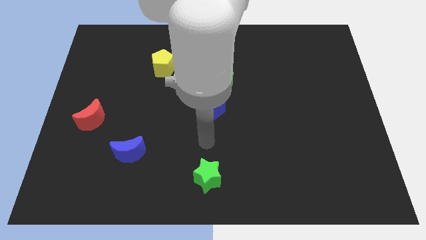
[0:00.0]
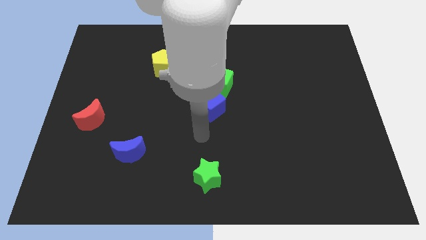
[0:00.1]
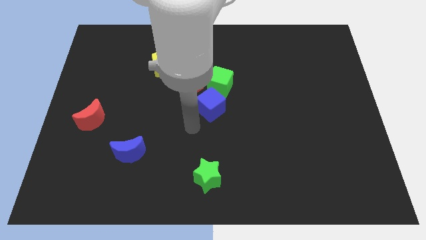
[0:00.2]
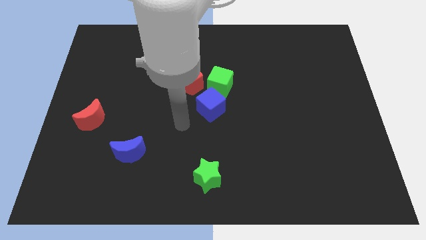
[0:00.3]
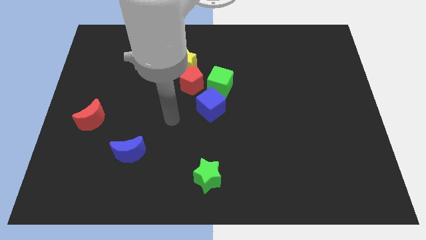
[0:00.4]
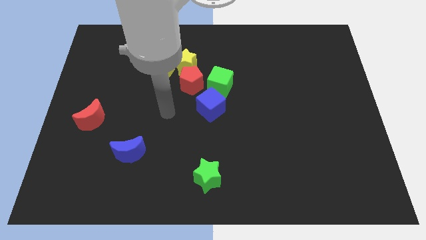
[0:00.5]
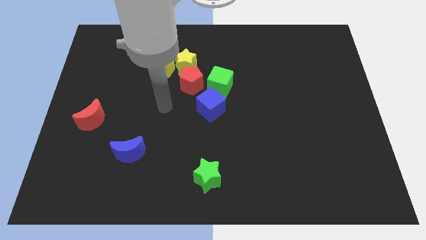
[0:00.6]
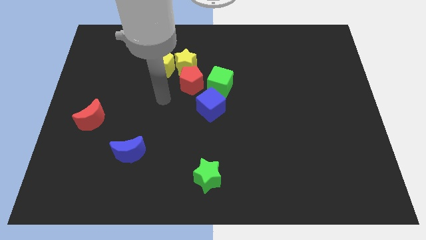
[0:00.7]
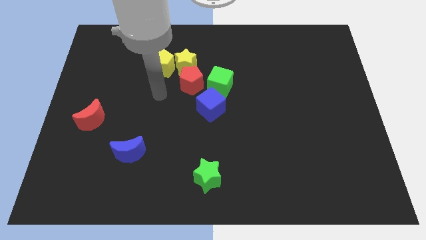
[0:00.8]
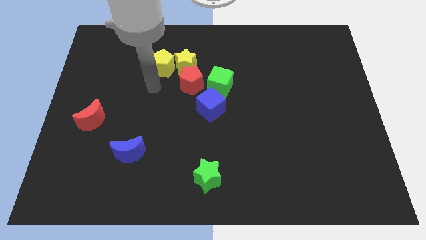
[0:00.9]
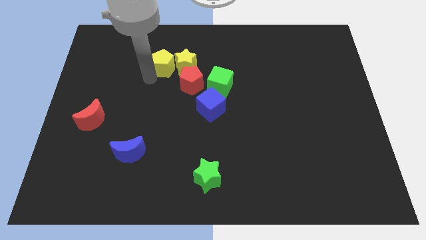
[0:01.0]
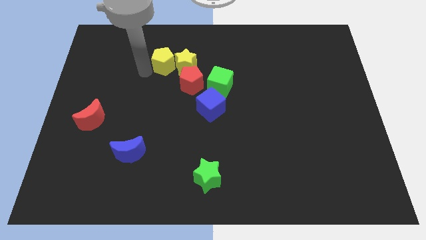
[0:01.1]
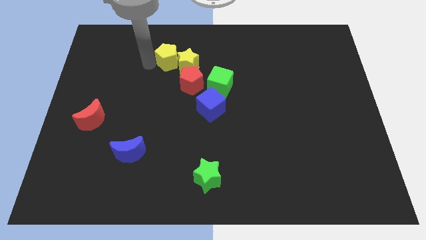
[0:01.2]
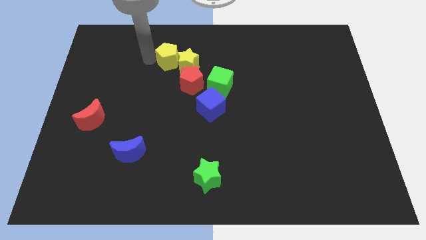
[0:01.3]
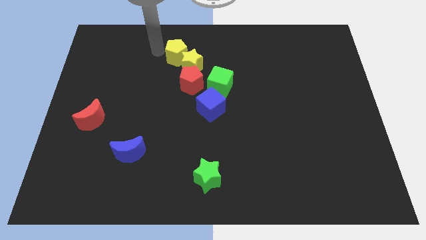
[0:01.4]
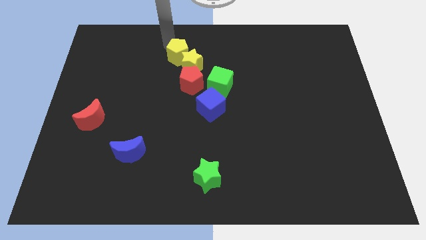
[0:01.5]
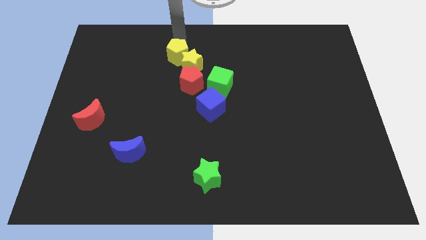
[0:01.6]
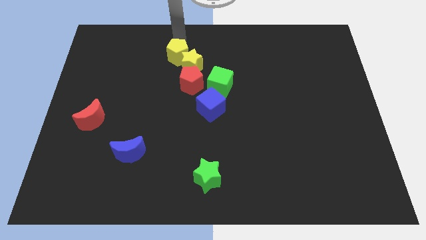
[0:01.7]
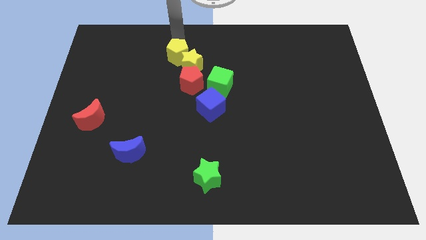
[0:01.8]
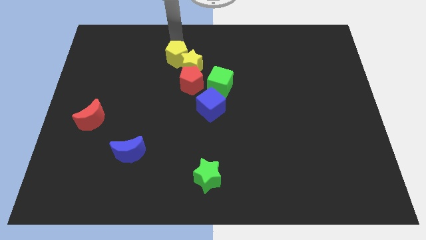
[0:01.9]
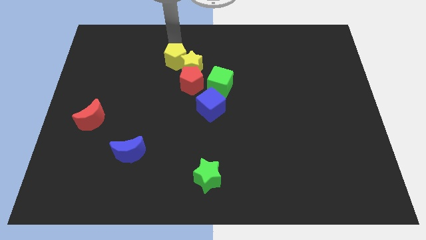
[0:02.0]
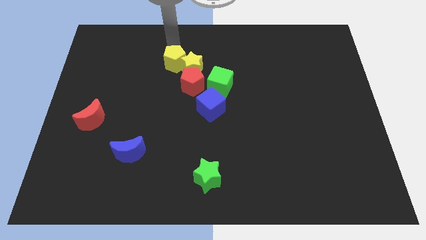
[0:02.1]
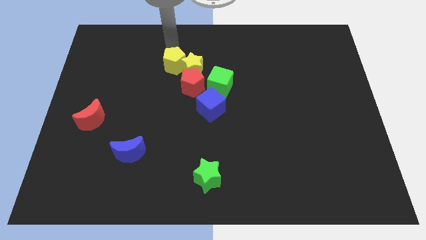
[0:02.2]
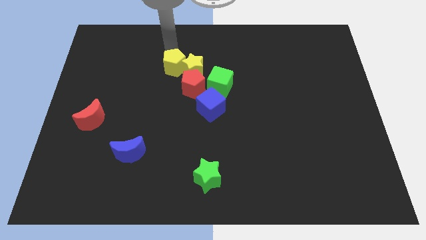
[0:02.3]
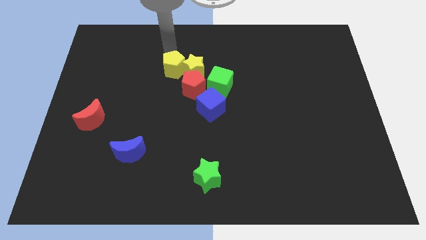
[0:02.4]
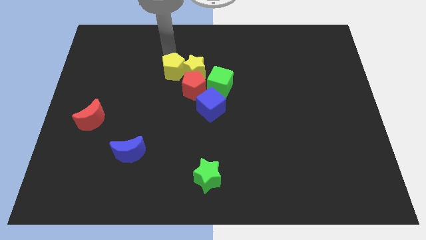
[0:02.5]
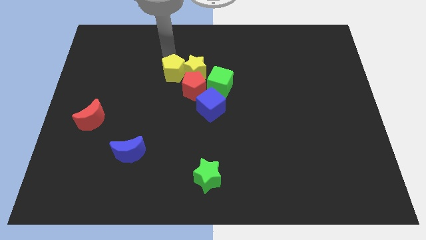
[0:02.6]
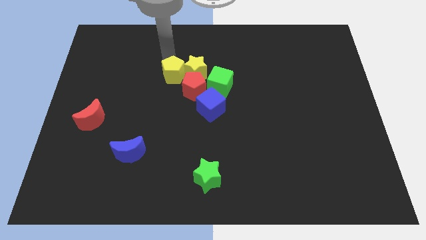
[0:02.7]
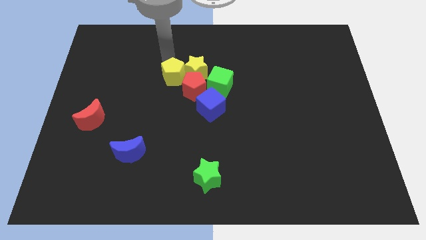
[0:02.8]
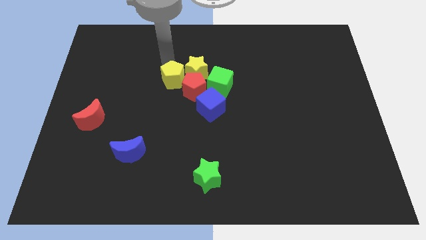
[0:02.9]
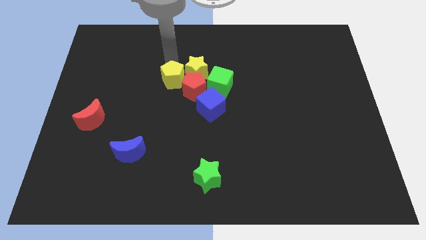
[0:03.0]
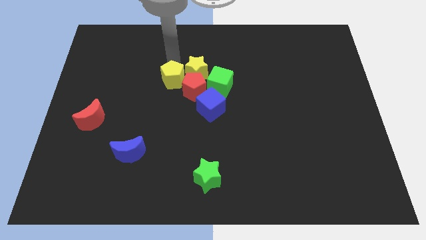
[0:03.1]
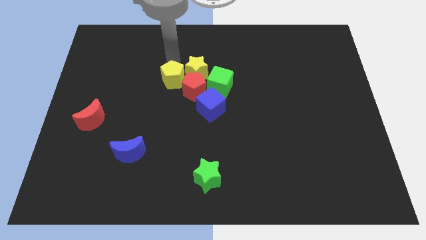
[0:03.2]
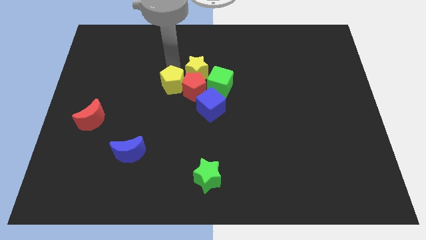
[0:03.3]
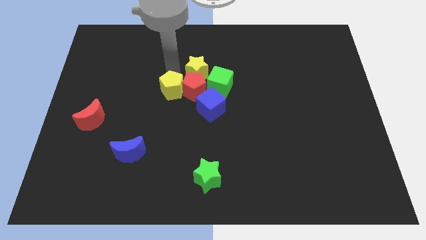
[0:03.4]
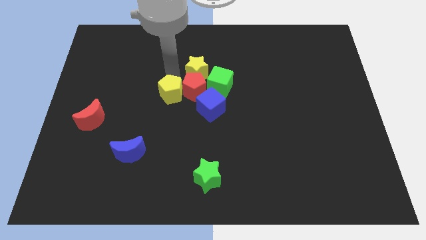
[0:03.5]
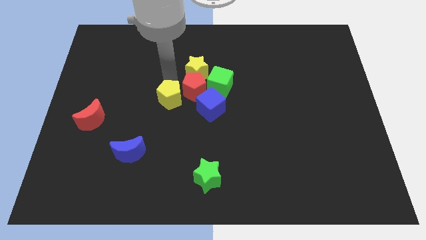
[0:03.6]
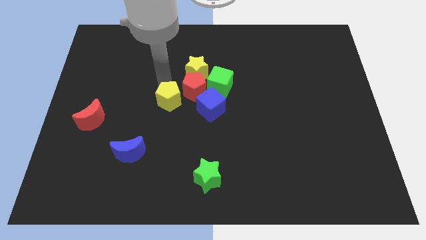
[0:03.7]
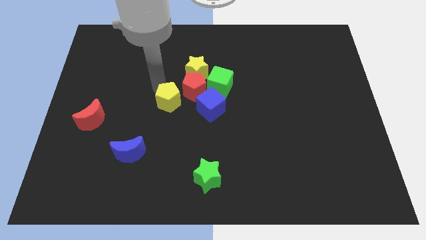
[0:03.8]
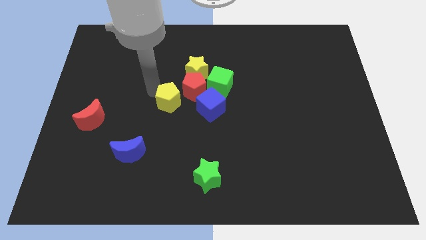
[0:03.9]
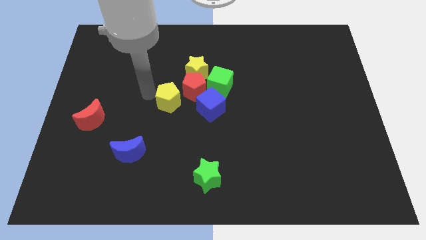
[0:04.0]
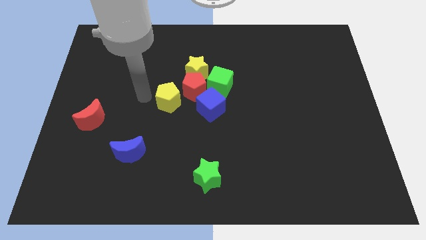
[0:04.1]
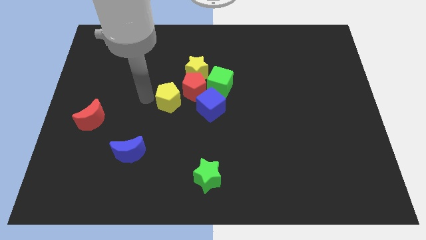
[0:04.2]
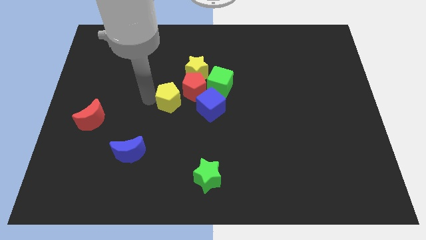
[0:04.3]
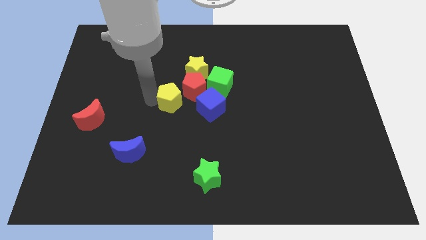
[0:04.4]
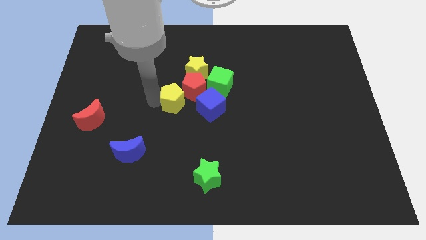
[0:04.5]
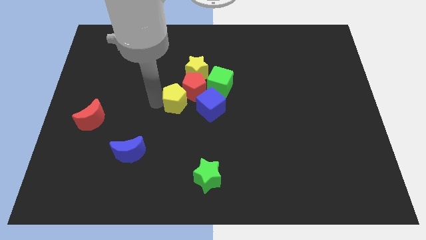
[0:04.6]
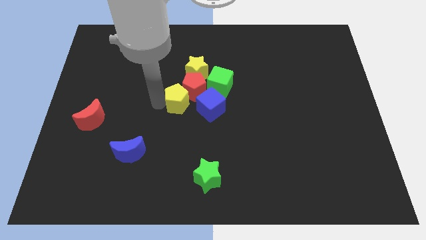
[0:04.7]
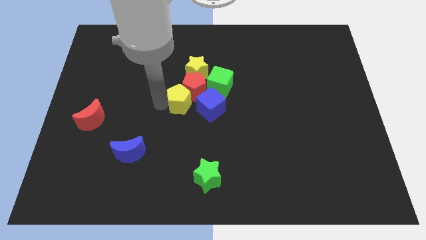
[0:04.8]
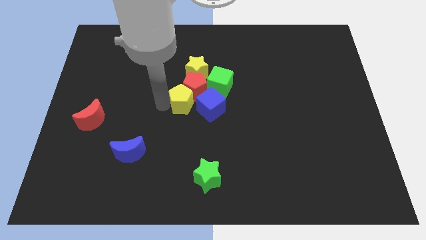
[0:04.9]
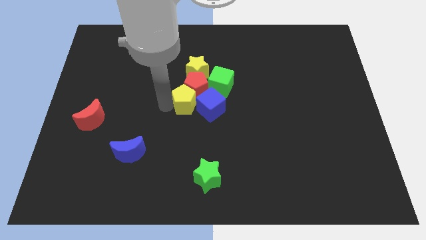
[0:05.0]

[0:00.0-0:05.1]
slide the yellow pentagon next to the blue cube

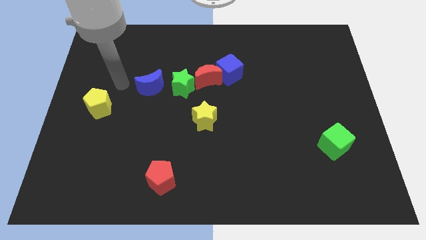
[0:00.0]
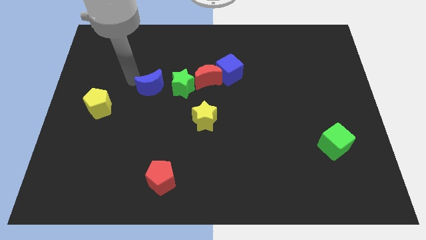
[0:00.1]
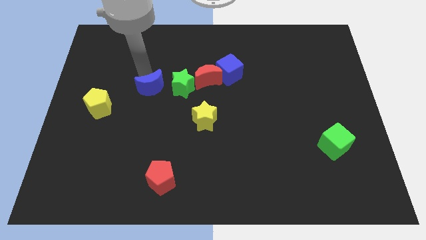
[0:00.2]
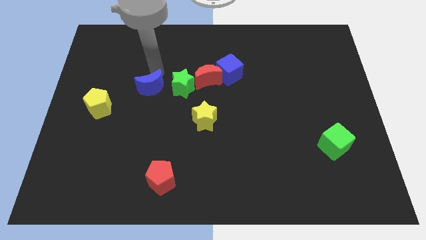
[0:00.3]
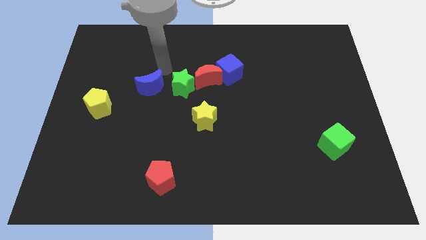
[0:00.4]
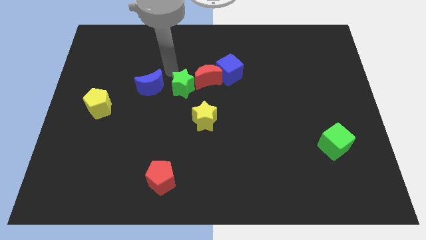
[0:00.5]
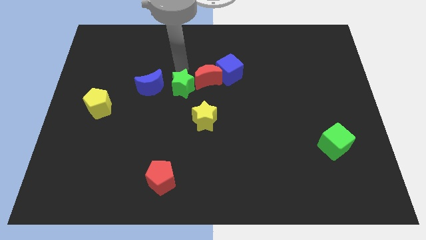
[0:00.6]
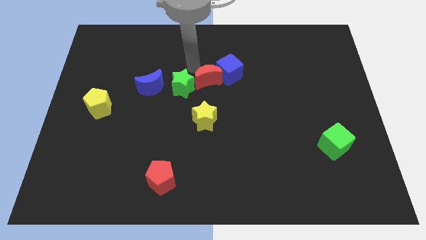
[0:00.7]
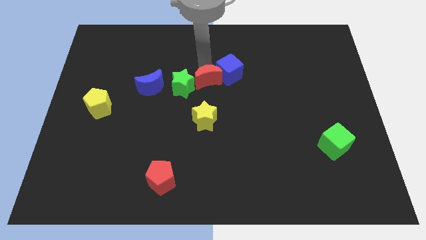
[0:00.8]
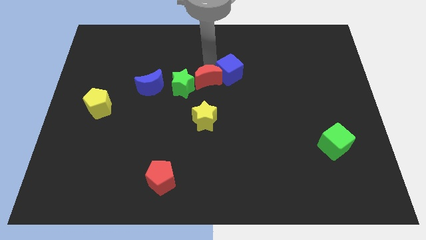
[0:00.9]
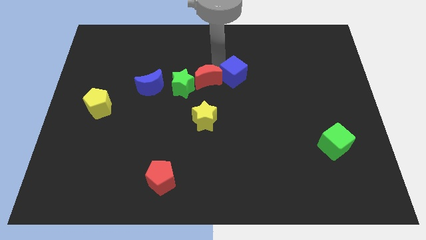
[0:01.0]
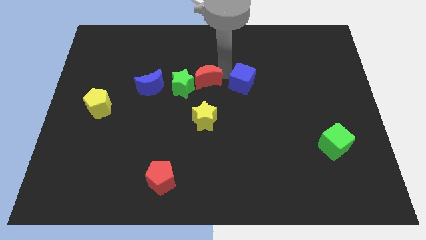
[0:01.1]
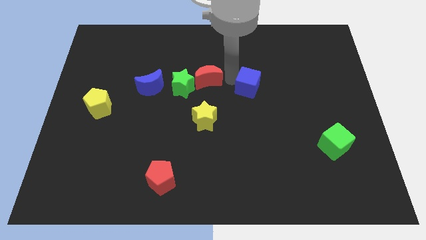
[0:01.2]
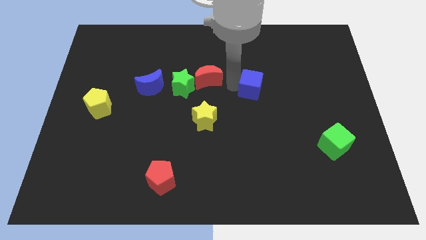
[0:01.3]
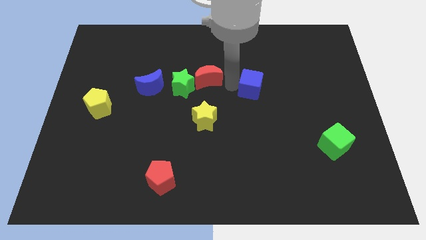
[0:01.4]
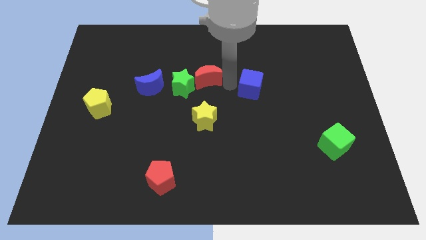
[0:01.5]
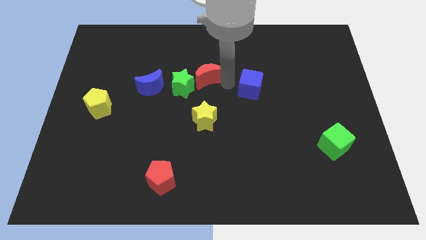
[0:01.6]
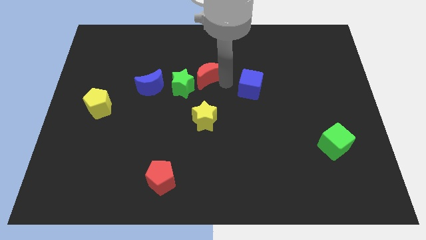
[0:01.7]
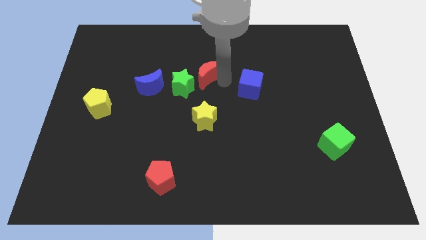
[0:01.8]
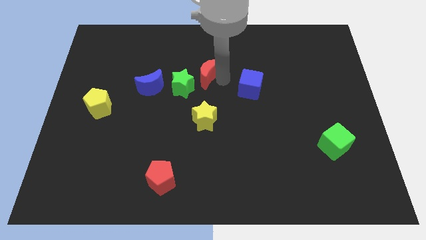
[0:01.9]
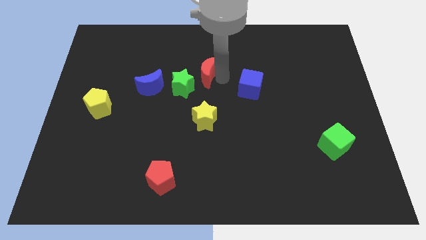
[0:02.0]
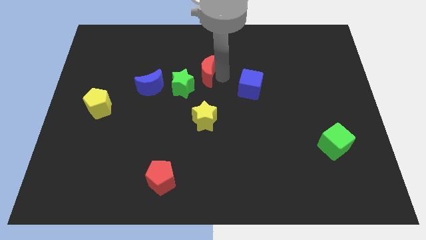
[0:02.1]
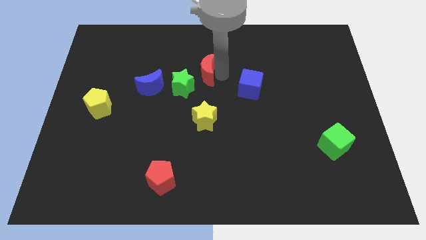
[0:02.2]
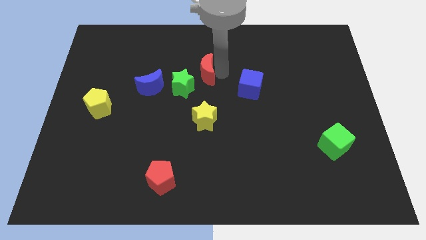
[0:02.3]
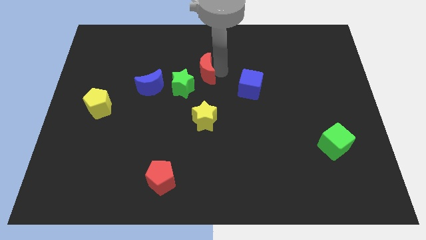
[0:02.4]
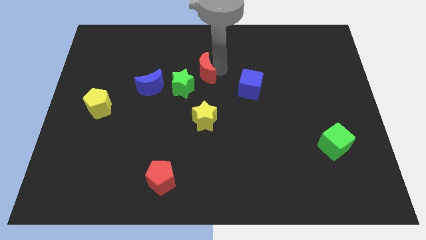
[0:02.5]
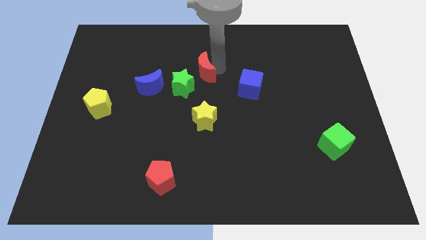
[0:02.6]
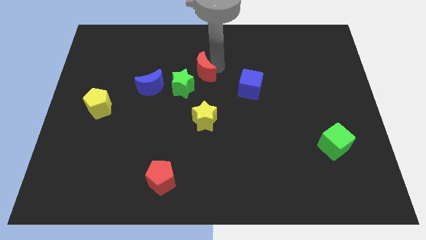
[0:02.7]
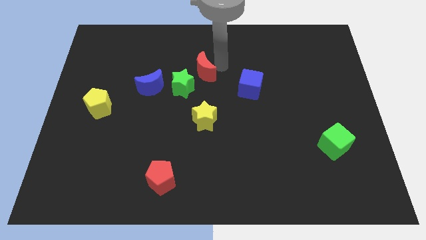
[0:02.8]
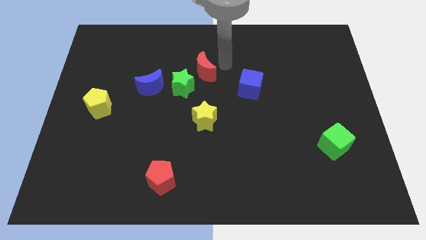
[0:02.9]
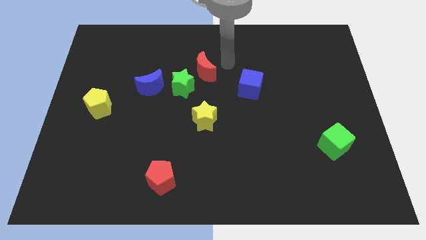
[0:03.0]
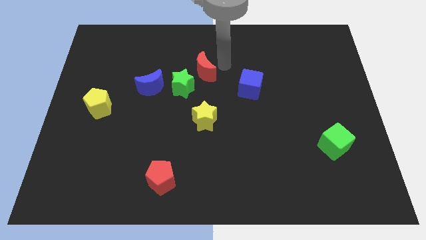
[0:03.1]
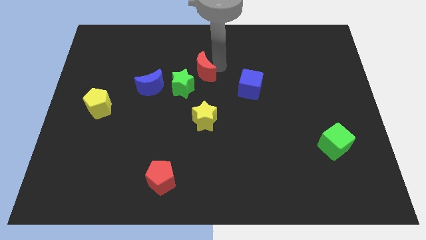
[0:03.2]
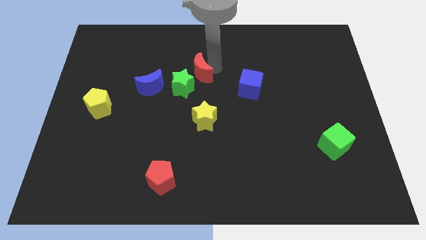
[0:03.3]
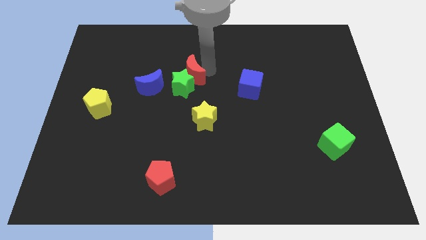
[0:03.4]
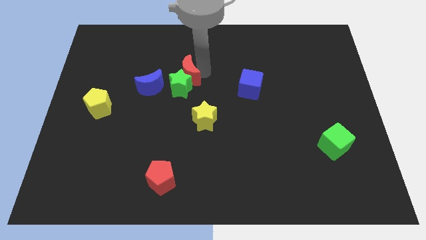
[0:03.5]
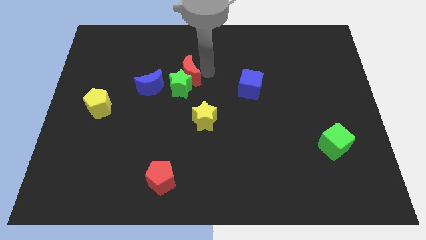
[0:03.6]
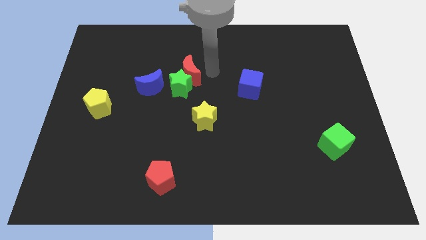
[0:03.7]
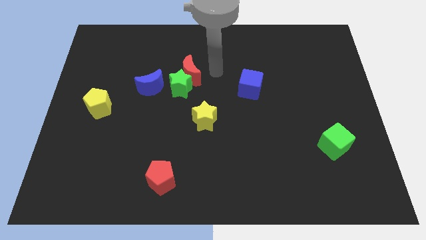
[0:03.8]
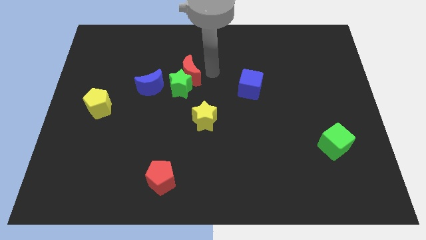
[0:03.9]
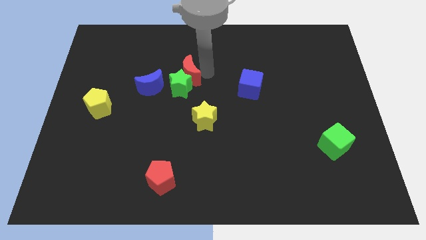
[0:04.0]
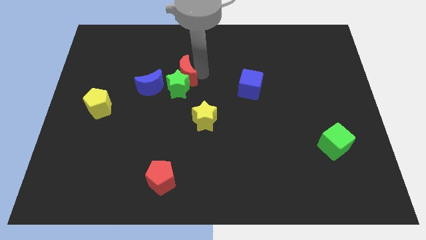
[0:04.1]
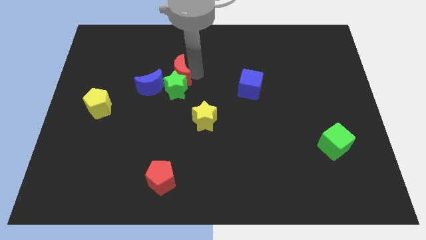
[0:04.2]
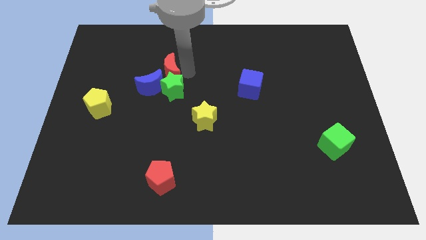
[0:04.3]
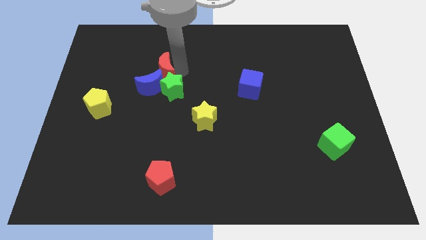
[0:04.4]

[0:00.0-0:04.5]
push the red moon next to the blue moon
